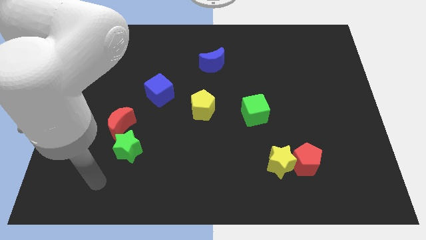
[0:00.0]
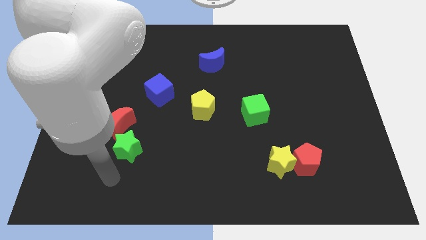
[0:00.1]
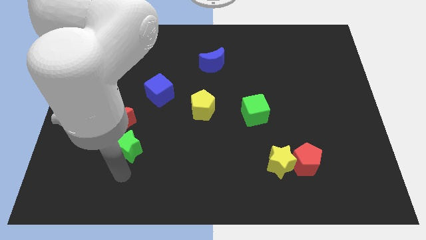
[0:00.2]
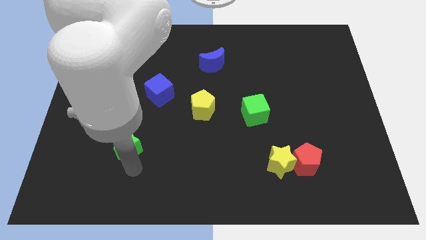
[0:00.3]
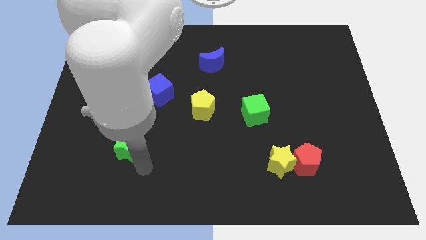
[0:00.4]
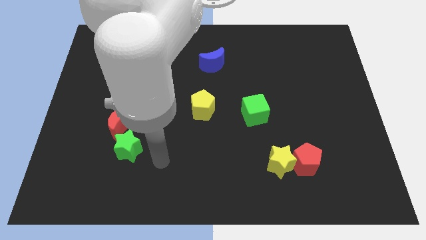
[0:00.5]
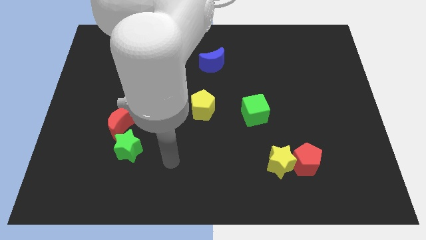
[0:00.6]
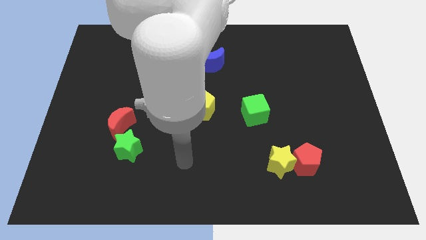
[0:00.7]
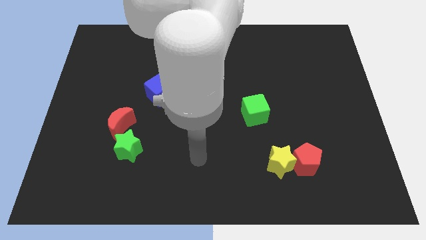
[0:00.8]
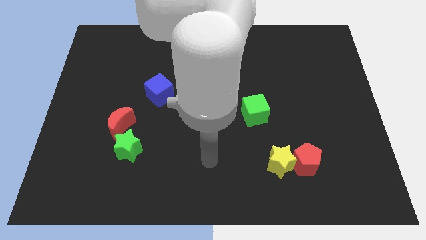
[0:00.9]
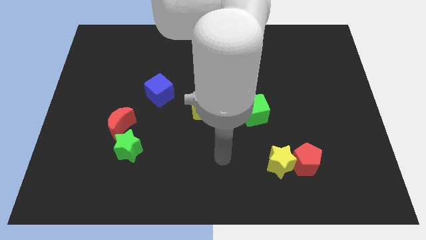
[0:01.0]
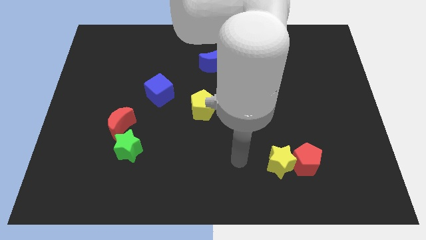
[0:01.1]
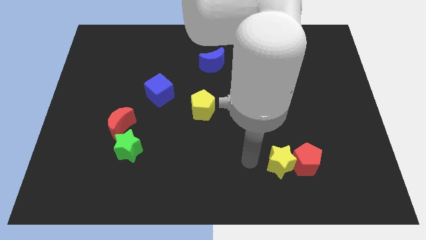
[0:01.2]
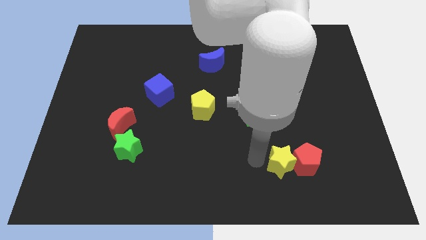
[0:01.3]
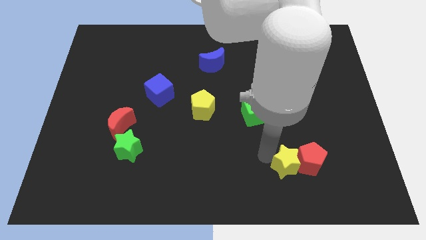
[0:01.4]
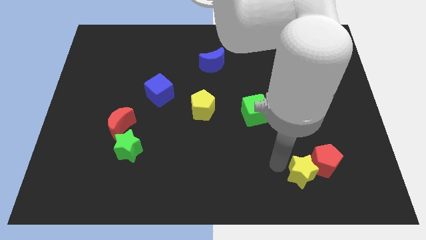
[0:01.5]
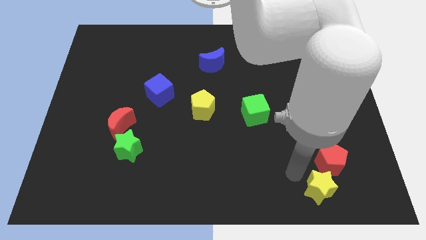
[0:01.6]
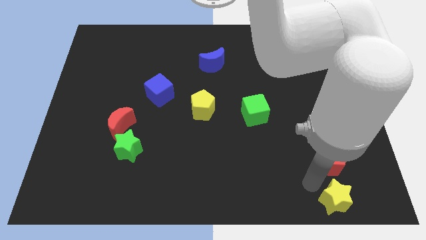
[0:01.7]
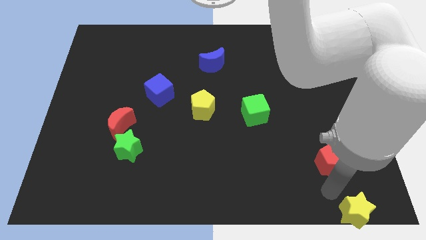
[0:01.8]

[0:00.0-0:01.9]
pull the red pentagon apart from the yellow star

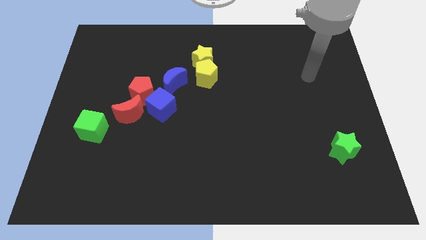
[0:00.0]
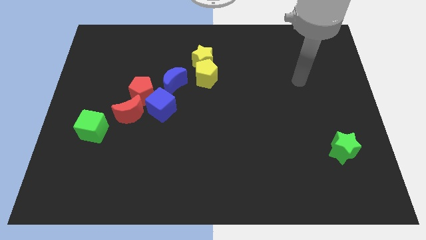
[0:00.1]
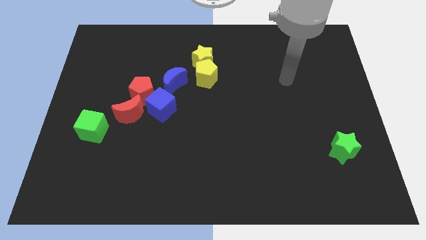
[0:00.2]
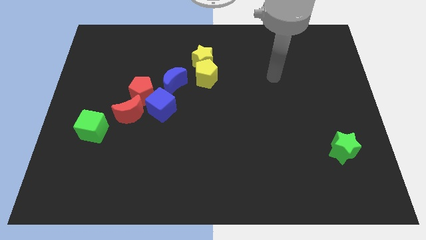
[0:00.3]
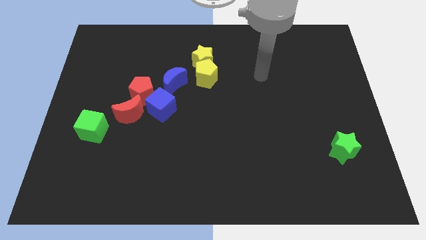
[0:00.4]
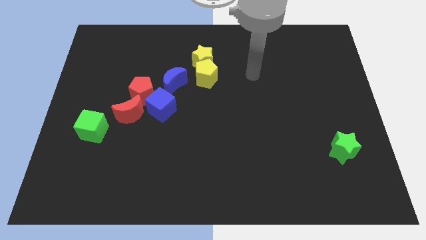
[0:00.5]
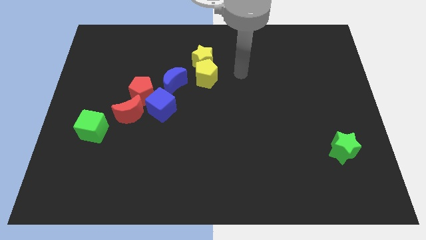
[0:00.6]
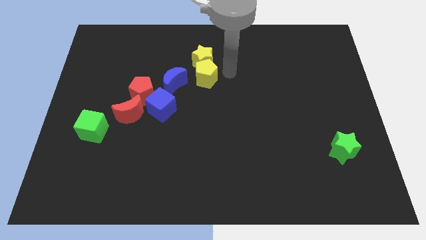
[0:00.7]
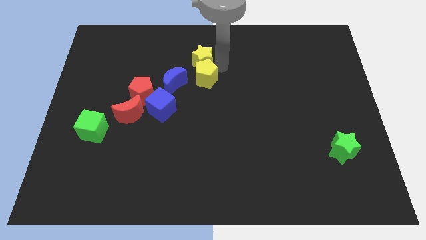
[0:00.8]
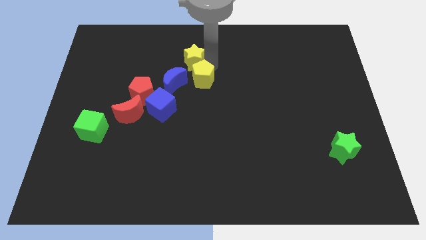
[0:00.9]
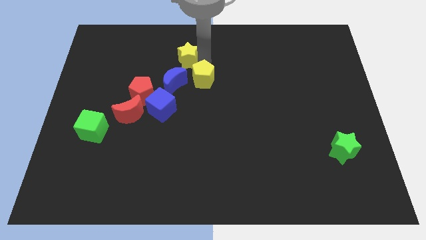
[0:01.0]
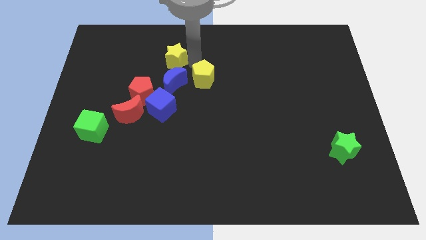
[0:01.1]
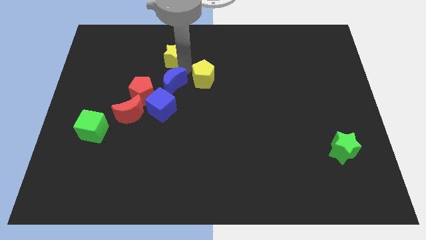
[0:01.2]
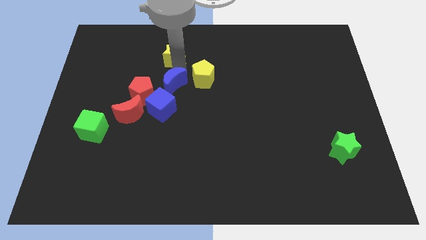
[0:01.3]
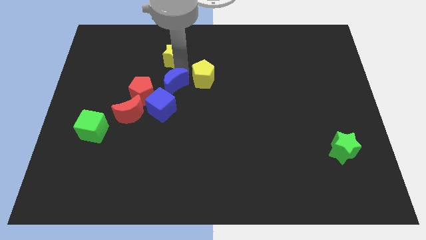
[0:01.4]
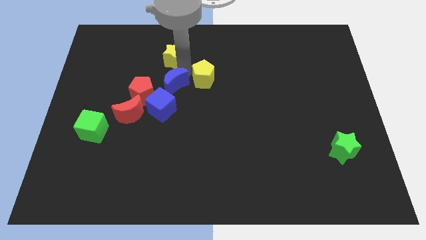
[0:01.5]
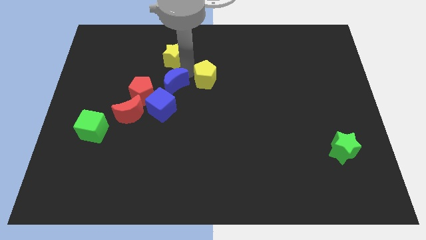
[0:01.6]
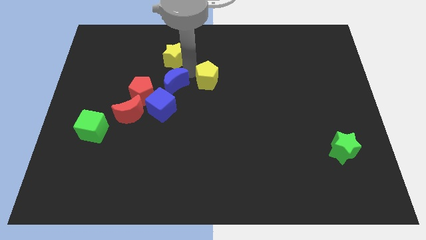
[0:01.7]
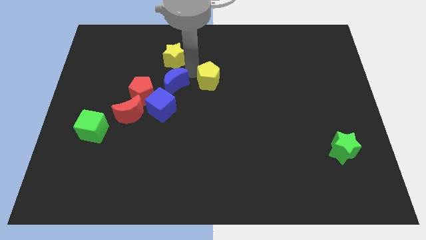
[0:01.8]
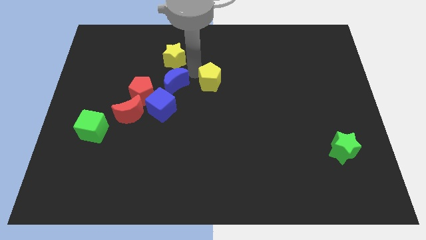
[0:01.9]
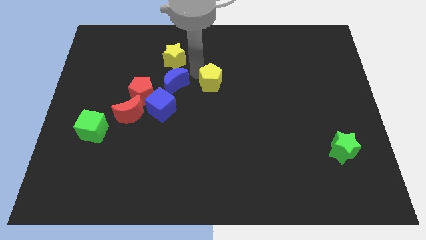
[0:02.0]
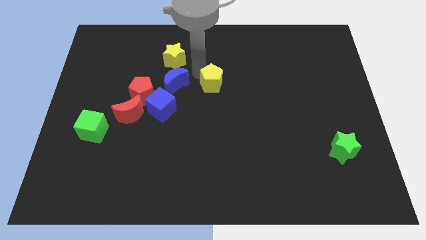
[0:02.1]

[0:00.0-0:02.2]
pull the yellow pentagon apart from the yellow star and blue moon

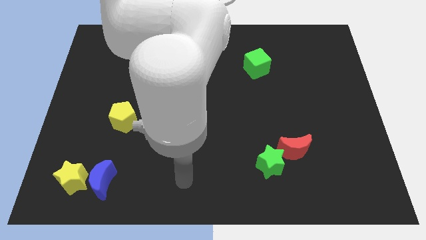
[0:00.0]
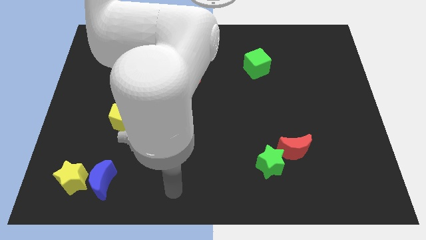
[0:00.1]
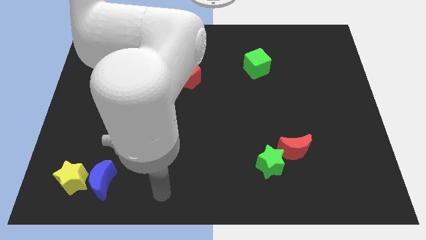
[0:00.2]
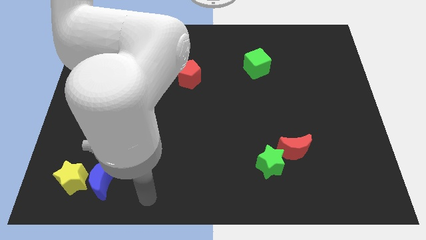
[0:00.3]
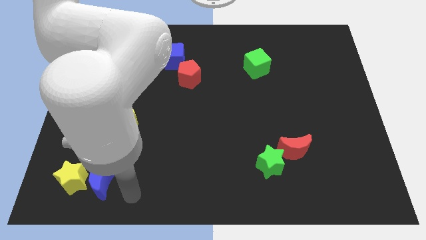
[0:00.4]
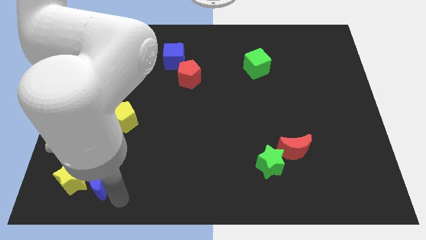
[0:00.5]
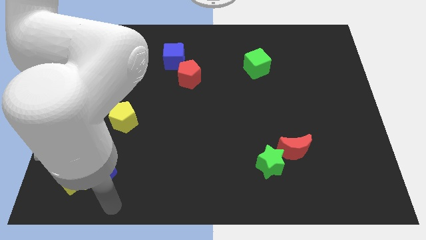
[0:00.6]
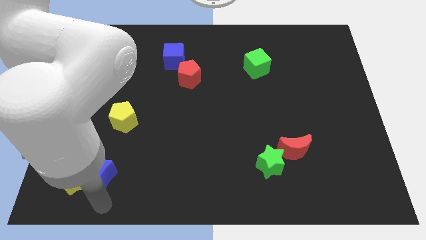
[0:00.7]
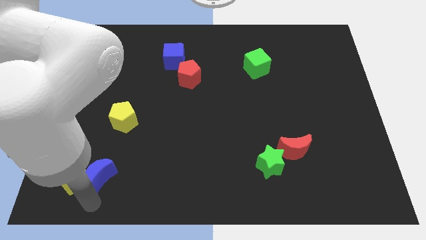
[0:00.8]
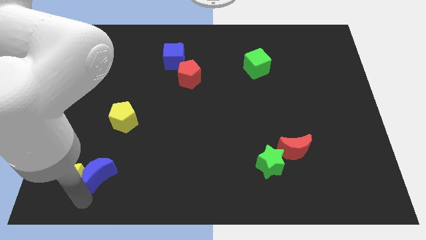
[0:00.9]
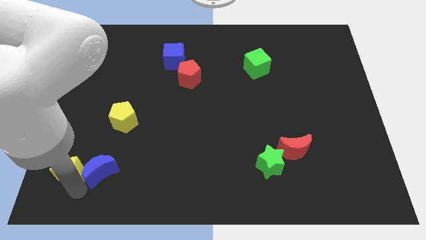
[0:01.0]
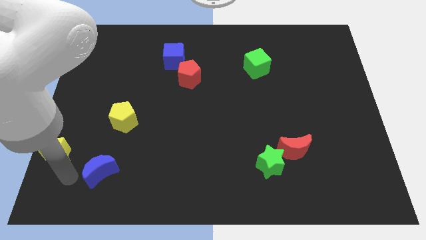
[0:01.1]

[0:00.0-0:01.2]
pull the blue moon apart from the yellow star

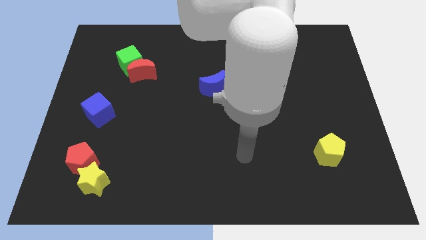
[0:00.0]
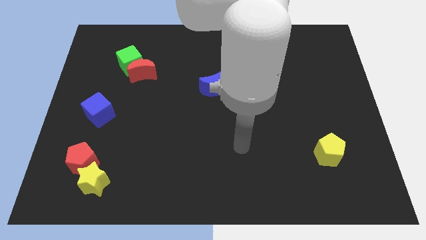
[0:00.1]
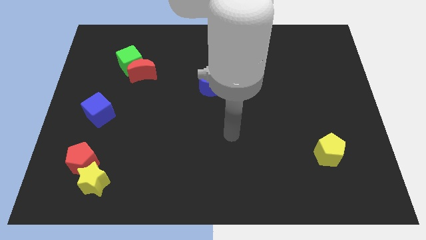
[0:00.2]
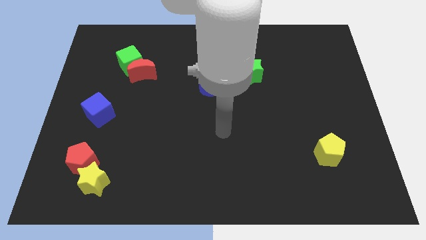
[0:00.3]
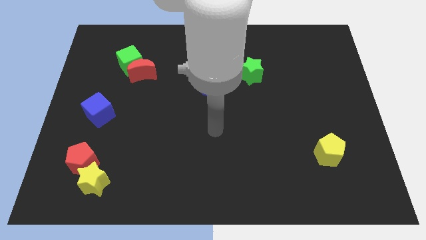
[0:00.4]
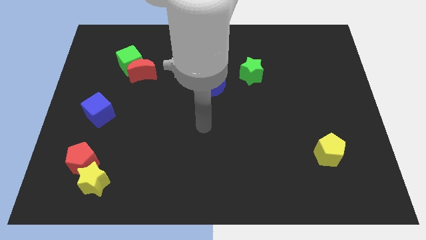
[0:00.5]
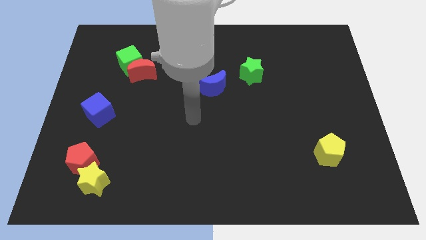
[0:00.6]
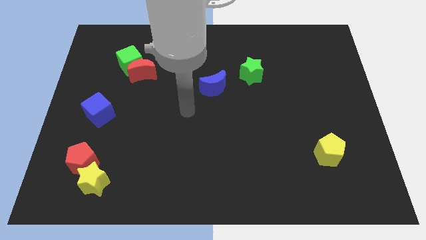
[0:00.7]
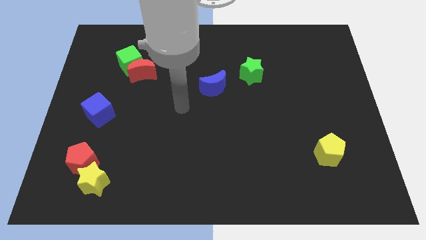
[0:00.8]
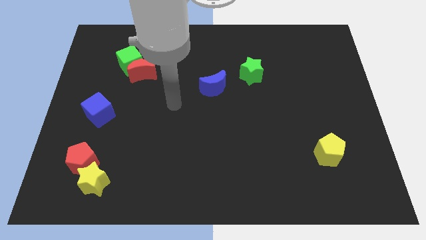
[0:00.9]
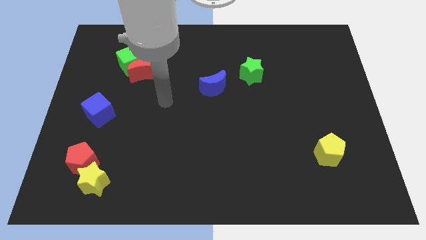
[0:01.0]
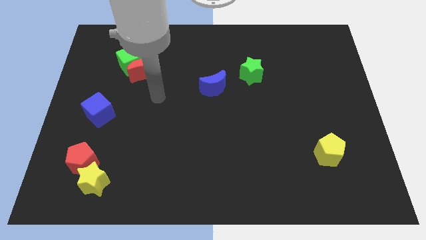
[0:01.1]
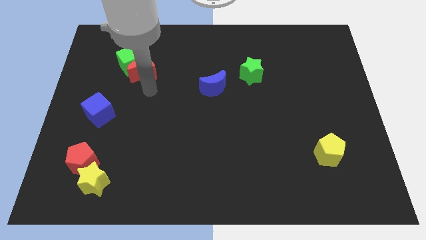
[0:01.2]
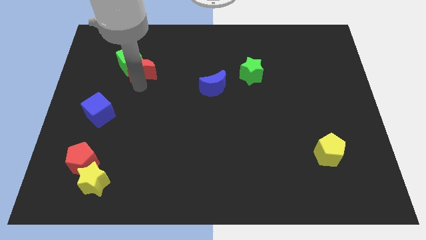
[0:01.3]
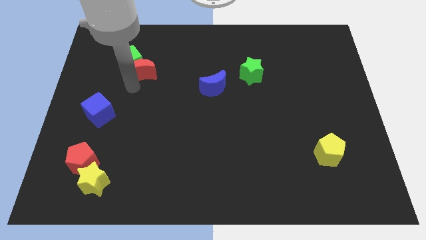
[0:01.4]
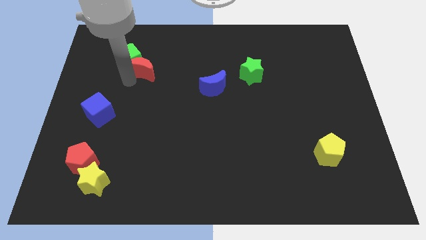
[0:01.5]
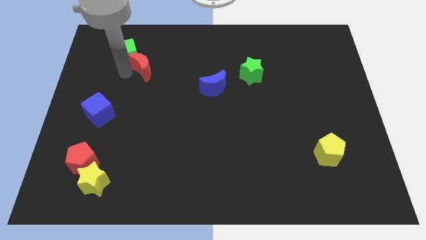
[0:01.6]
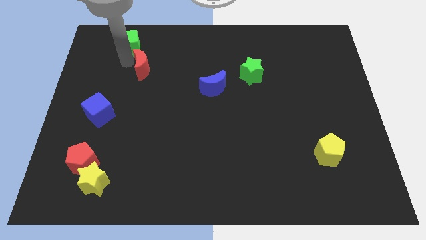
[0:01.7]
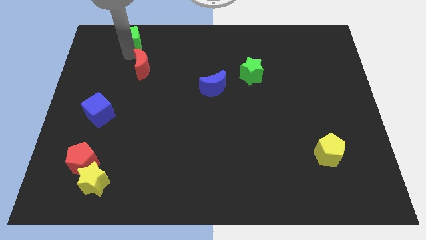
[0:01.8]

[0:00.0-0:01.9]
move the red moon away from the green cube

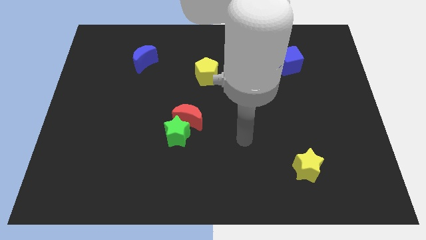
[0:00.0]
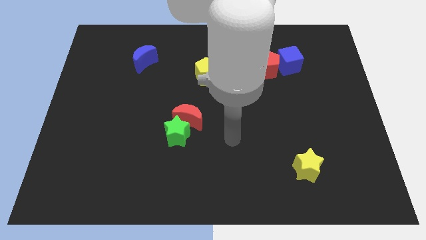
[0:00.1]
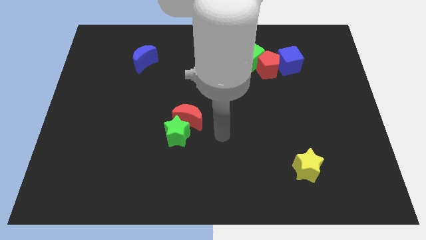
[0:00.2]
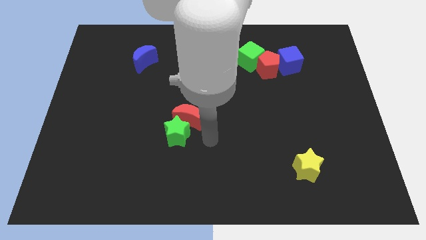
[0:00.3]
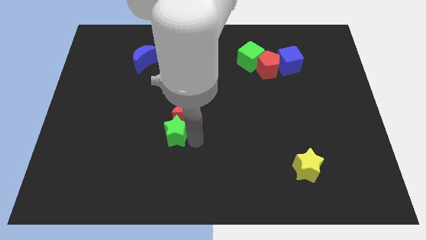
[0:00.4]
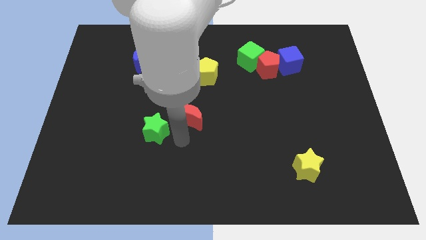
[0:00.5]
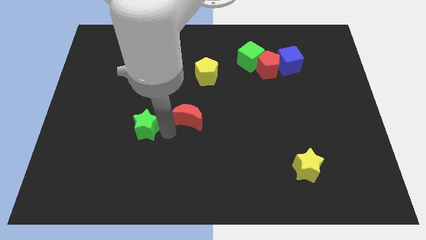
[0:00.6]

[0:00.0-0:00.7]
pull the red moon apart from the green star

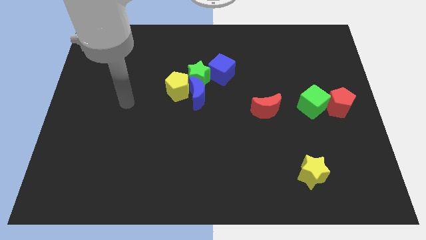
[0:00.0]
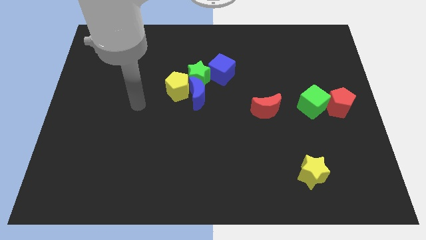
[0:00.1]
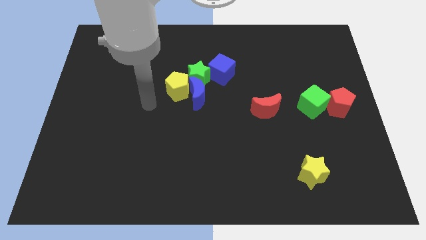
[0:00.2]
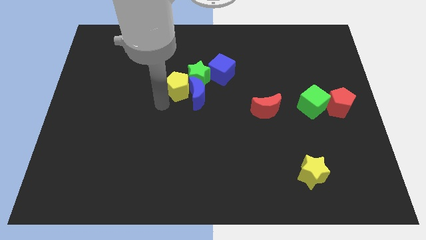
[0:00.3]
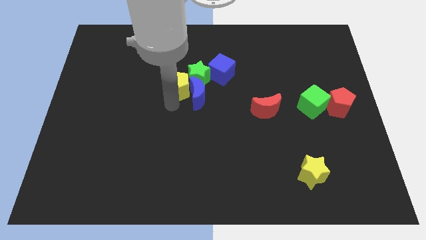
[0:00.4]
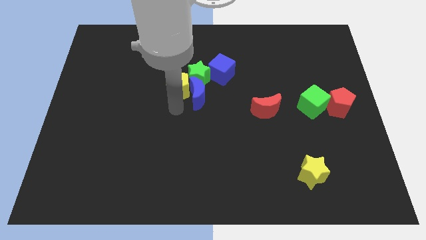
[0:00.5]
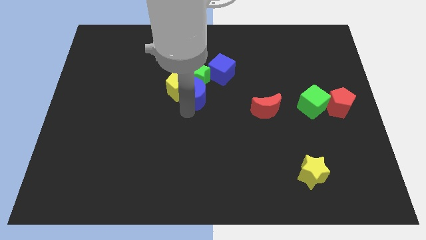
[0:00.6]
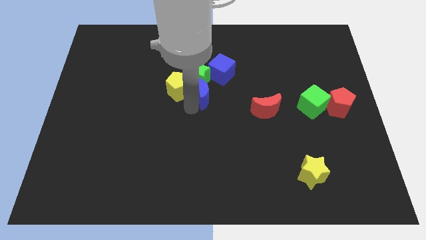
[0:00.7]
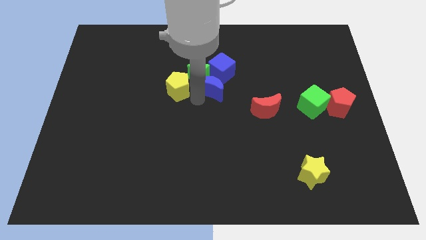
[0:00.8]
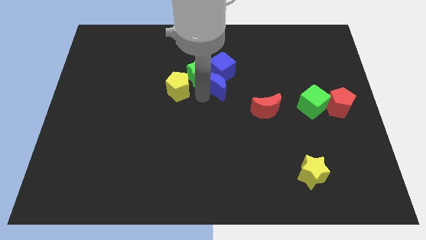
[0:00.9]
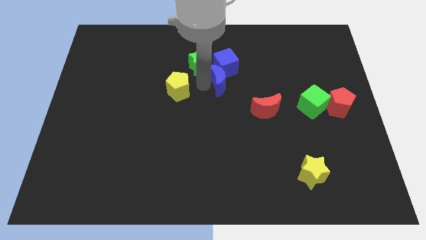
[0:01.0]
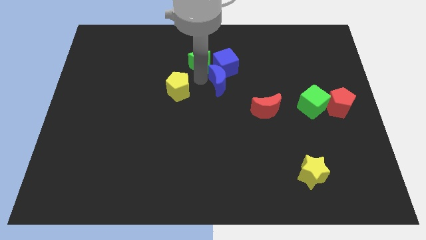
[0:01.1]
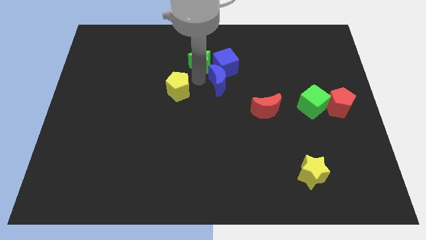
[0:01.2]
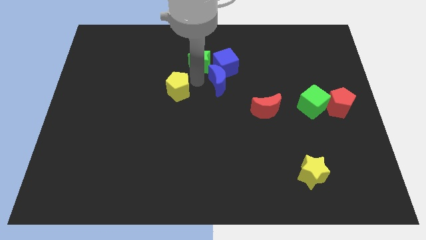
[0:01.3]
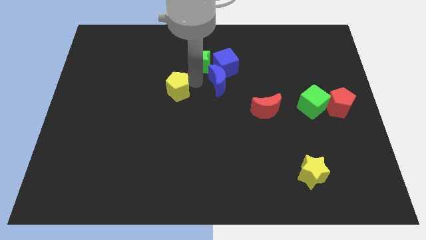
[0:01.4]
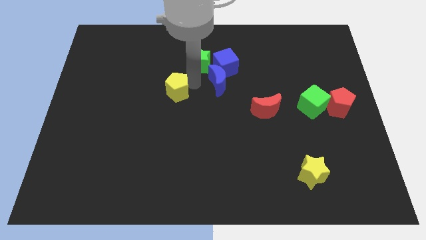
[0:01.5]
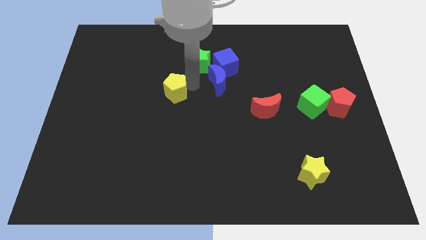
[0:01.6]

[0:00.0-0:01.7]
separate the yellow pentagon from the blue moon and green star
